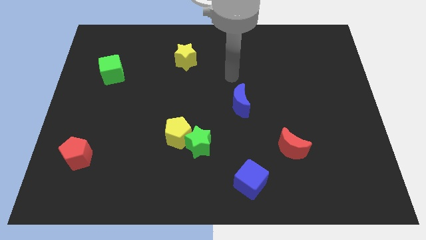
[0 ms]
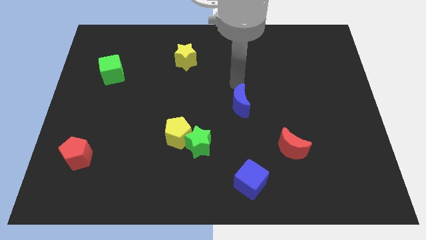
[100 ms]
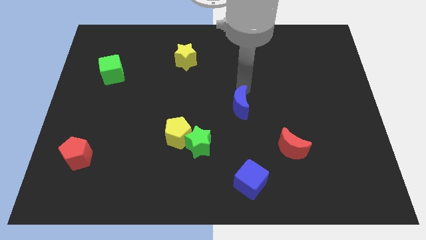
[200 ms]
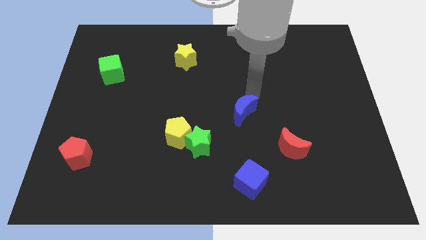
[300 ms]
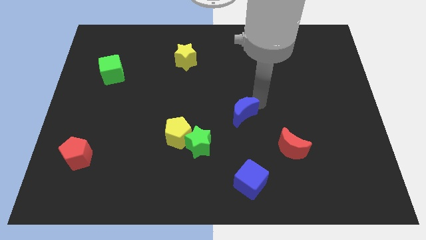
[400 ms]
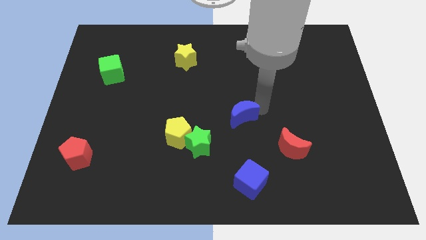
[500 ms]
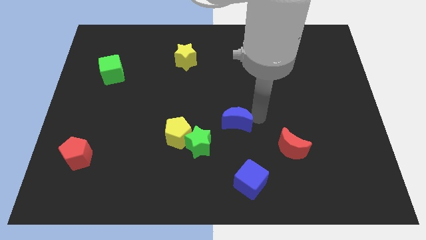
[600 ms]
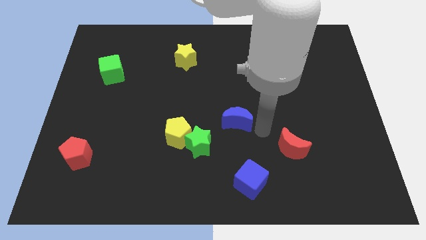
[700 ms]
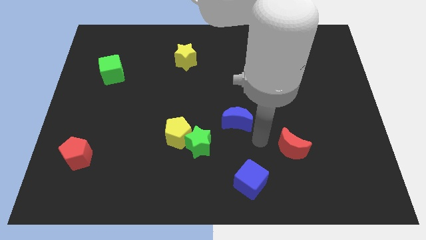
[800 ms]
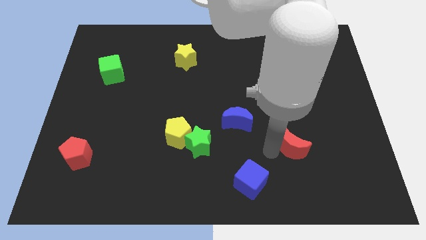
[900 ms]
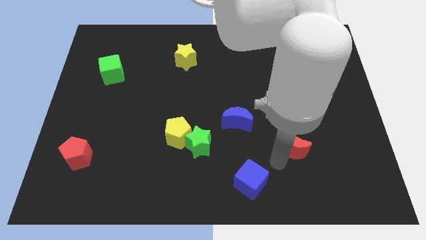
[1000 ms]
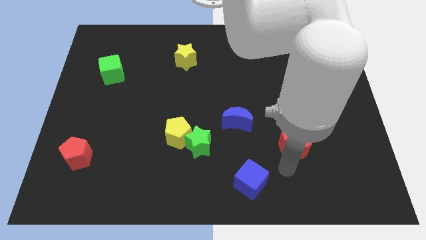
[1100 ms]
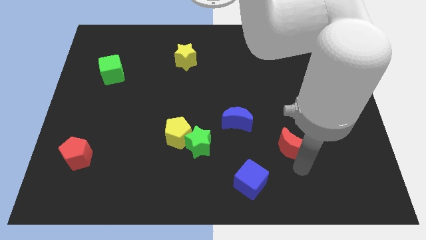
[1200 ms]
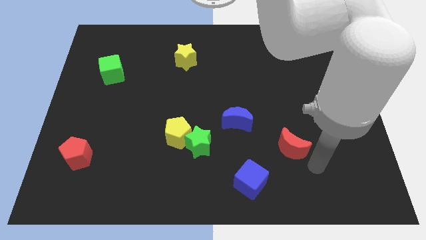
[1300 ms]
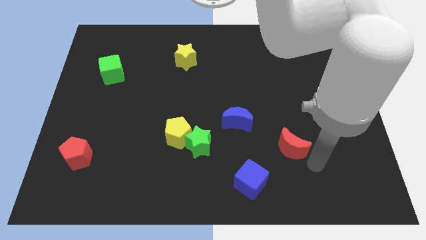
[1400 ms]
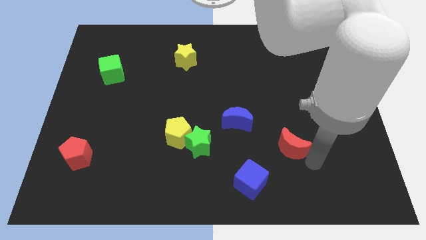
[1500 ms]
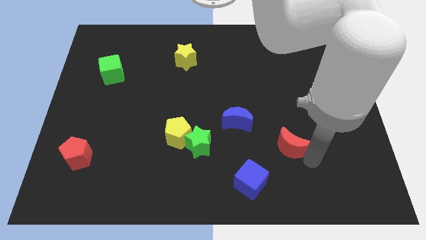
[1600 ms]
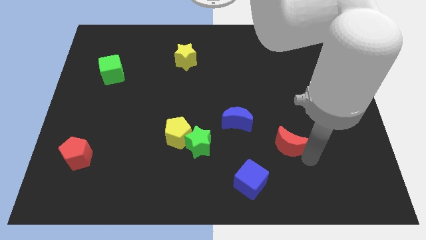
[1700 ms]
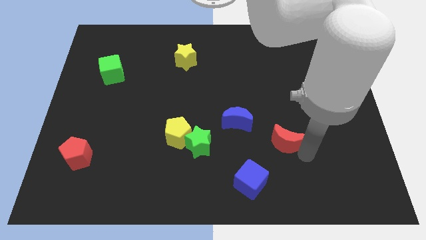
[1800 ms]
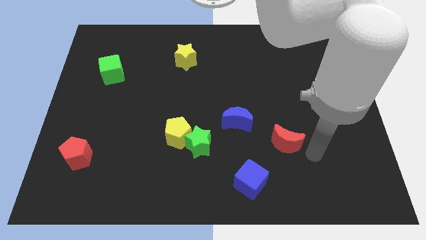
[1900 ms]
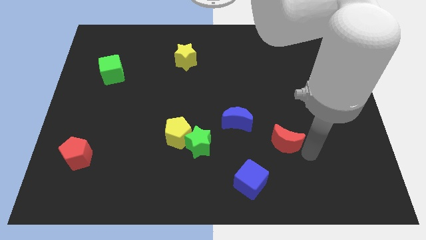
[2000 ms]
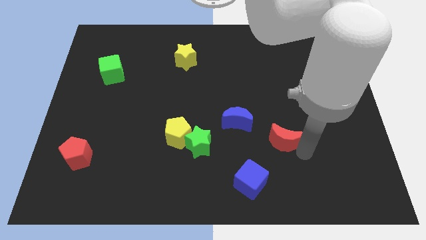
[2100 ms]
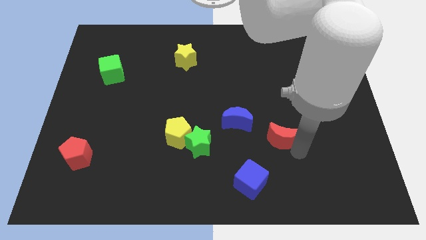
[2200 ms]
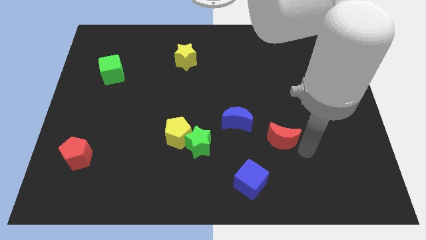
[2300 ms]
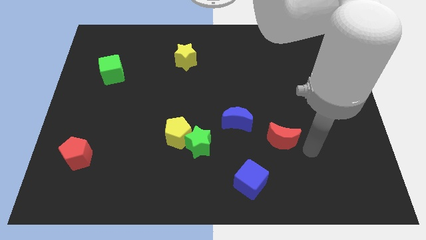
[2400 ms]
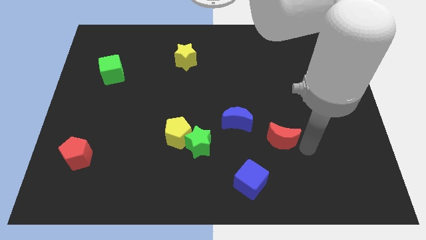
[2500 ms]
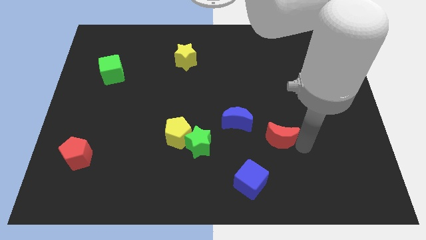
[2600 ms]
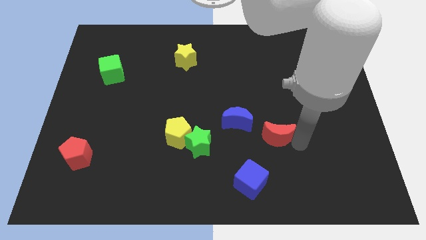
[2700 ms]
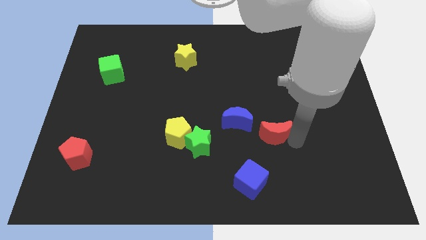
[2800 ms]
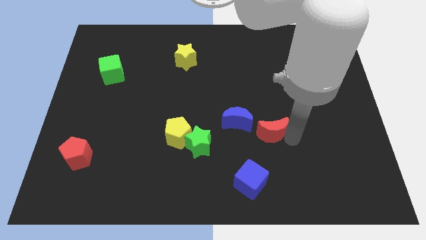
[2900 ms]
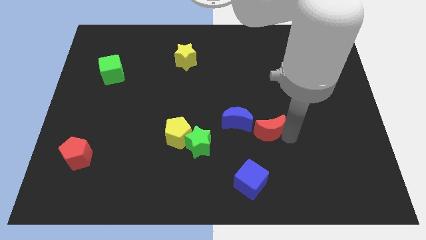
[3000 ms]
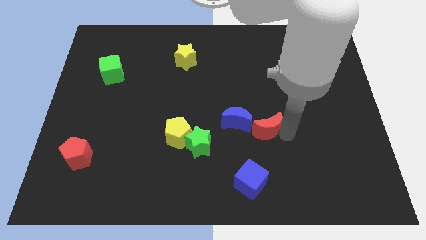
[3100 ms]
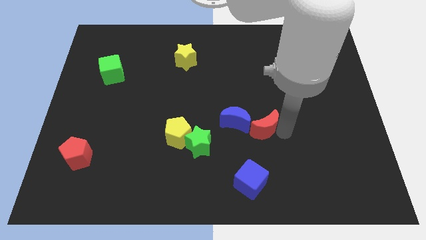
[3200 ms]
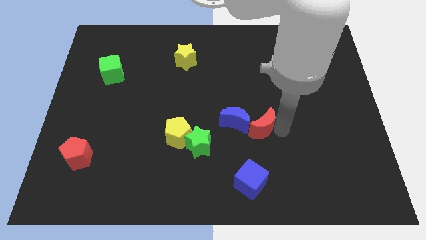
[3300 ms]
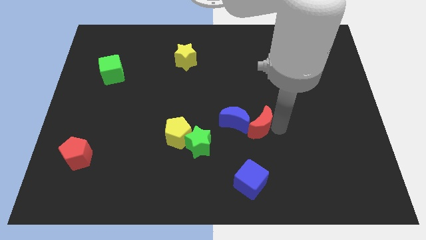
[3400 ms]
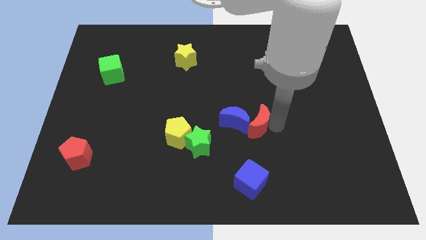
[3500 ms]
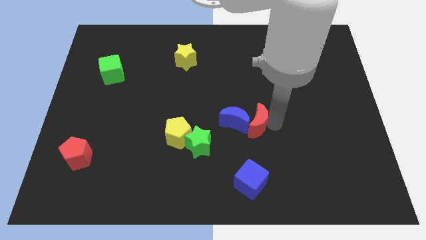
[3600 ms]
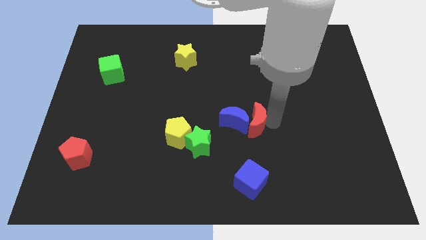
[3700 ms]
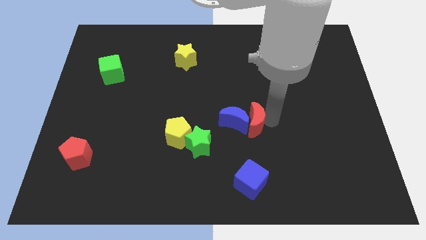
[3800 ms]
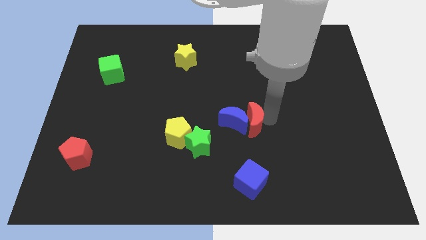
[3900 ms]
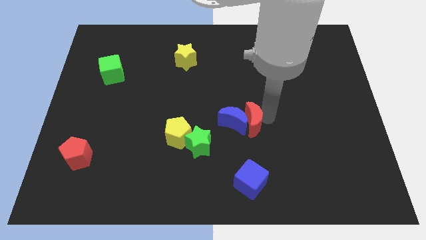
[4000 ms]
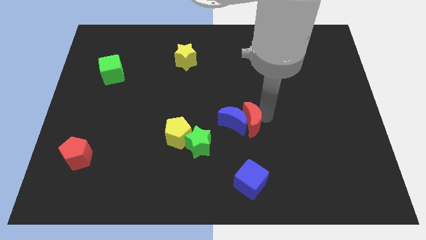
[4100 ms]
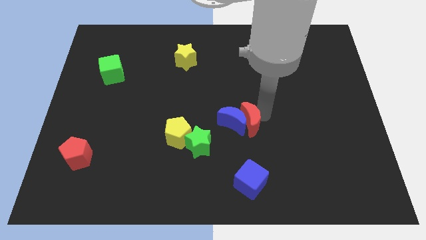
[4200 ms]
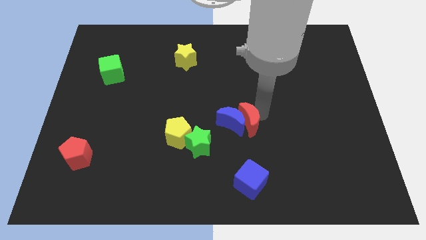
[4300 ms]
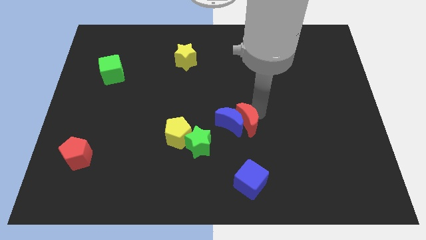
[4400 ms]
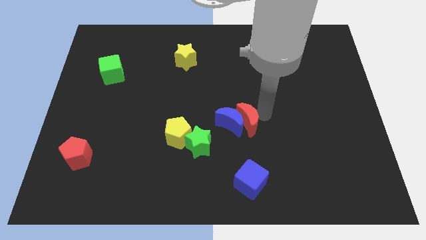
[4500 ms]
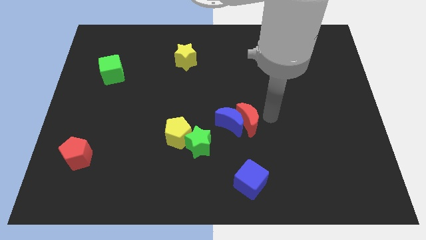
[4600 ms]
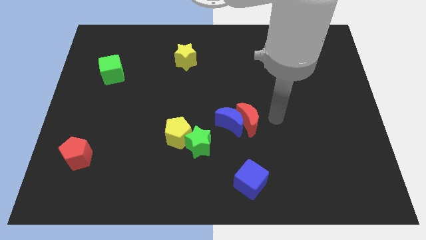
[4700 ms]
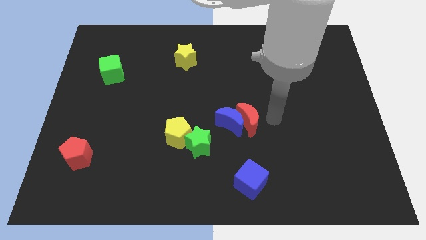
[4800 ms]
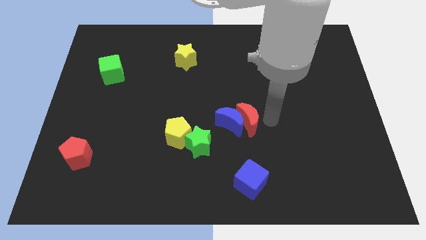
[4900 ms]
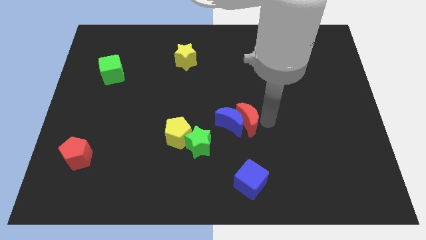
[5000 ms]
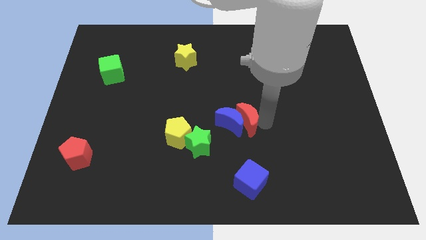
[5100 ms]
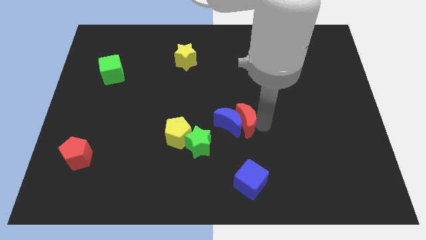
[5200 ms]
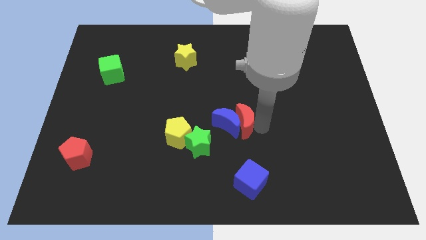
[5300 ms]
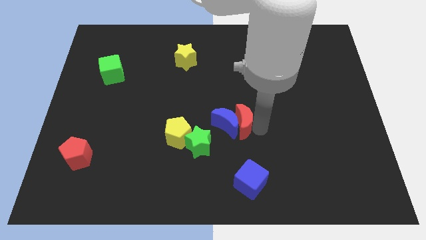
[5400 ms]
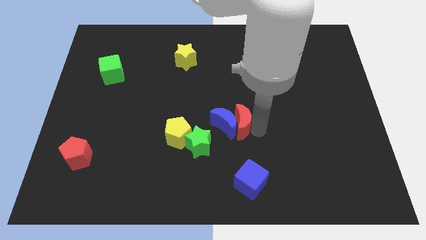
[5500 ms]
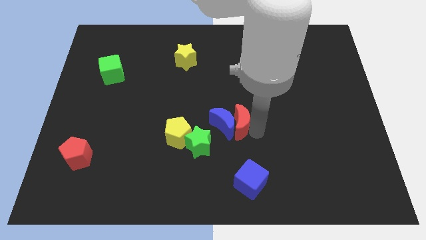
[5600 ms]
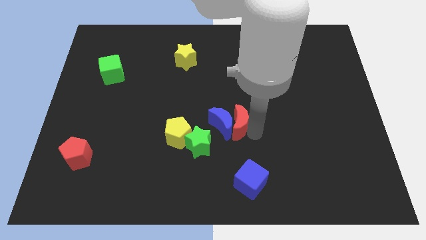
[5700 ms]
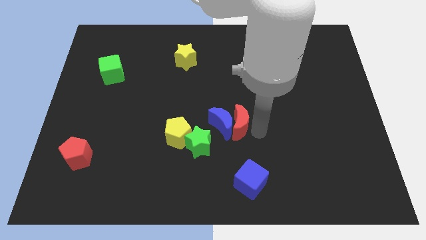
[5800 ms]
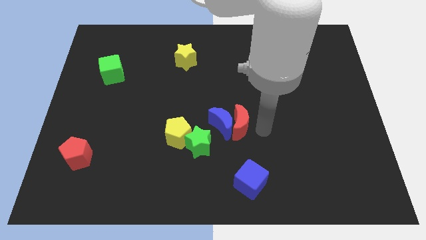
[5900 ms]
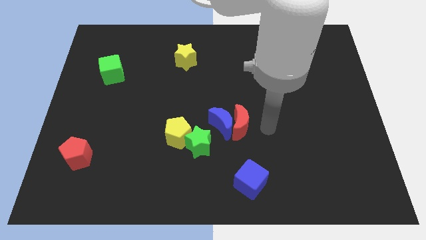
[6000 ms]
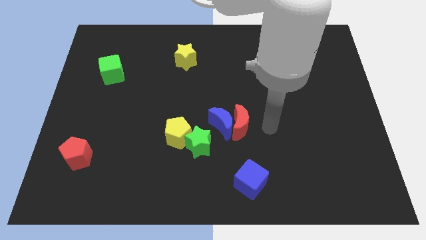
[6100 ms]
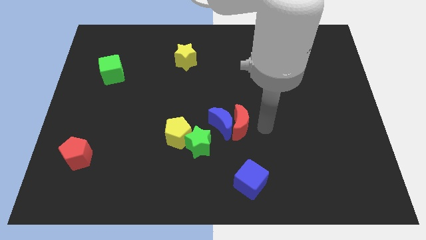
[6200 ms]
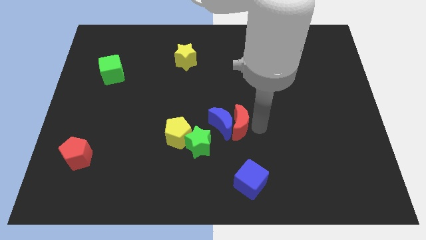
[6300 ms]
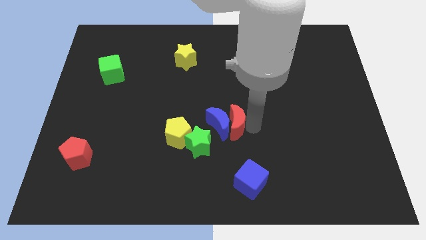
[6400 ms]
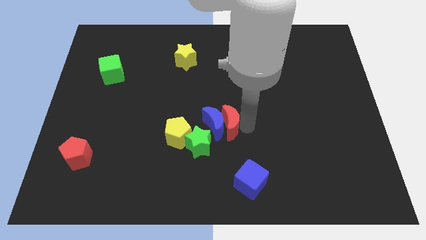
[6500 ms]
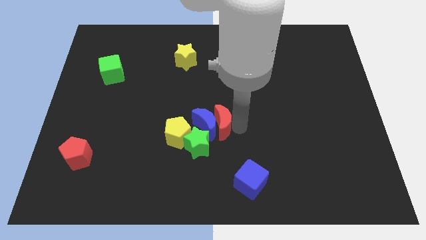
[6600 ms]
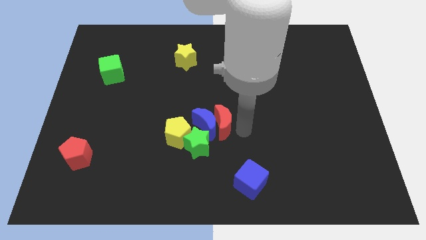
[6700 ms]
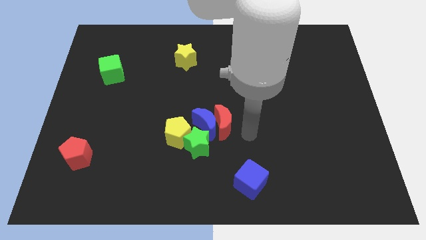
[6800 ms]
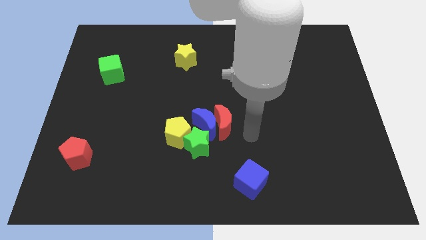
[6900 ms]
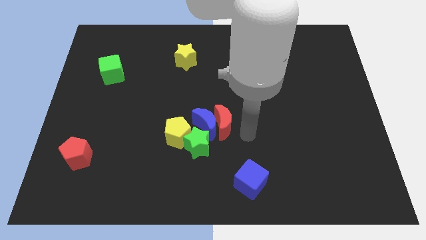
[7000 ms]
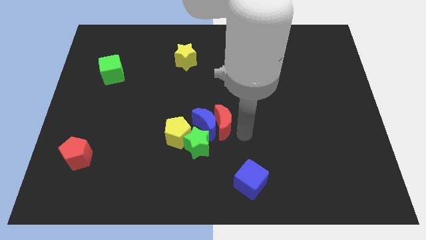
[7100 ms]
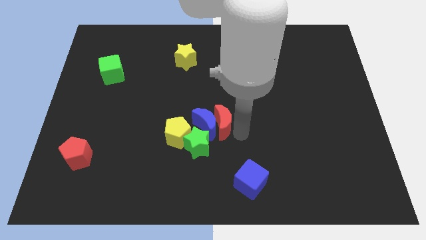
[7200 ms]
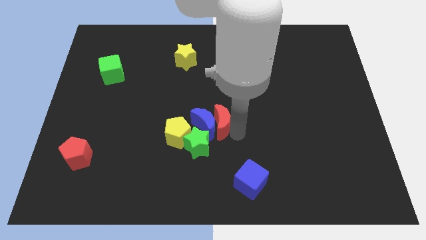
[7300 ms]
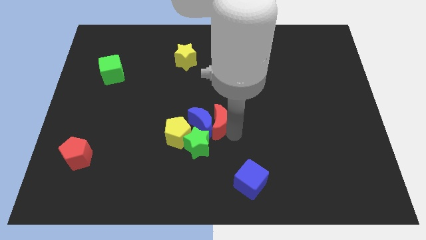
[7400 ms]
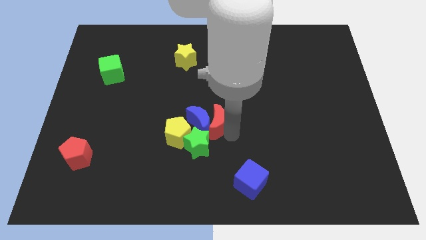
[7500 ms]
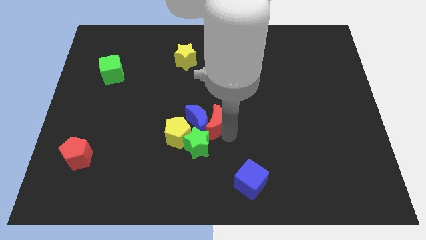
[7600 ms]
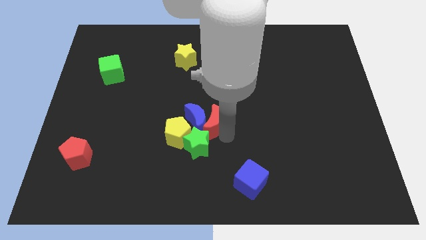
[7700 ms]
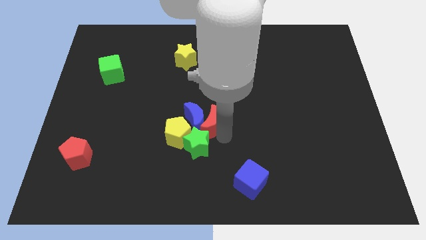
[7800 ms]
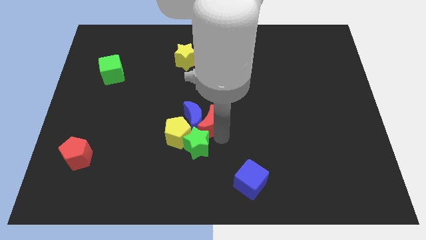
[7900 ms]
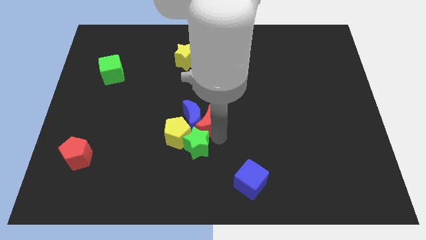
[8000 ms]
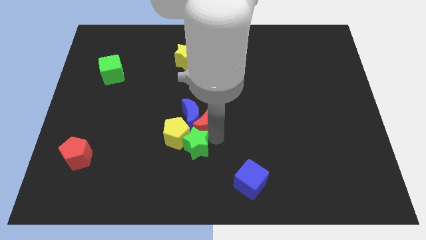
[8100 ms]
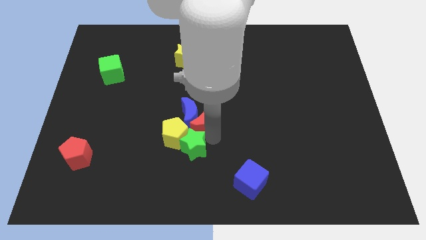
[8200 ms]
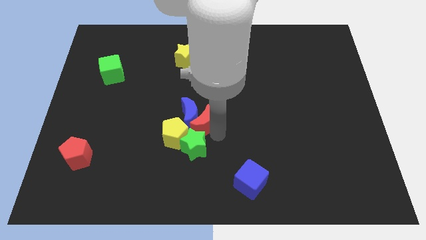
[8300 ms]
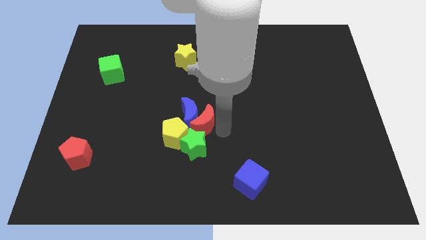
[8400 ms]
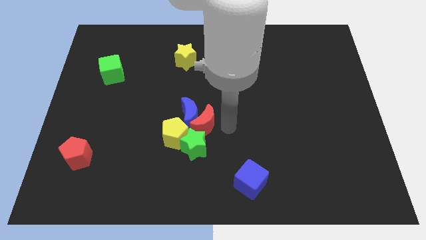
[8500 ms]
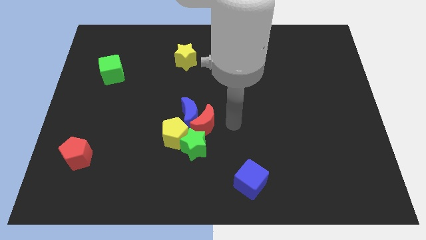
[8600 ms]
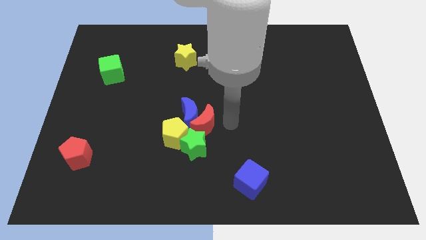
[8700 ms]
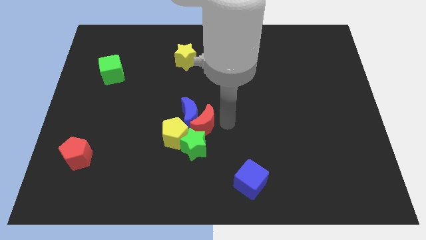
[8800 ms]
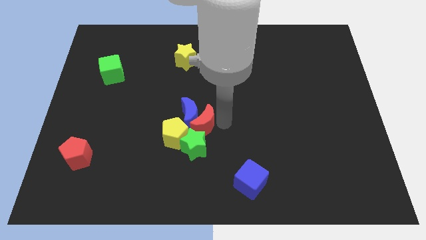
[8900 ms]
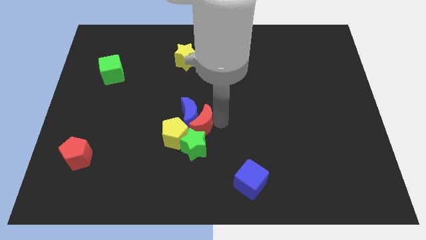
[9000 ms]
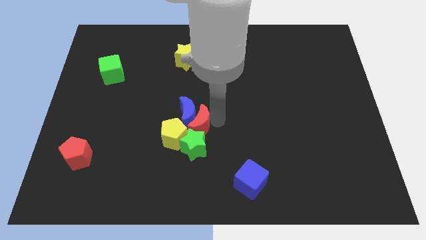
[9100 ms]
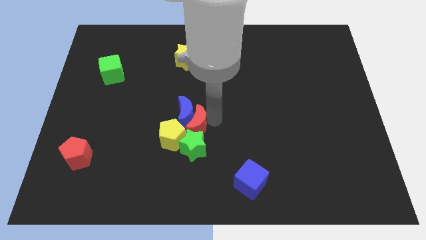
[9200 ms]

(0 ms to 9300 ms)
move the red moon diagonally up and to the left of the green star
